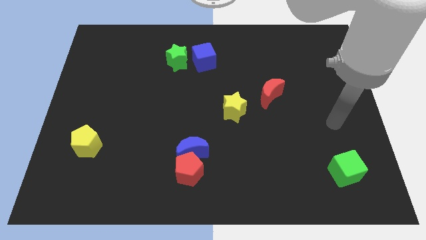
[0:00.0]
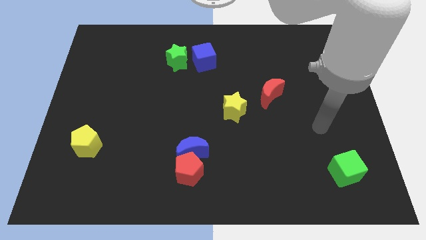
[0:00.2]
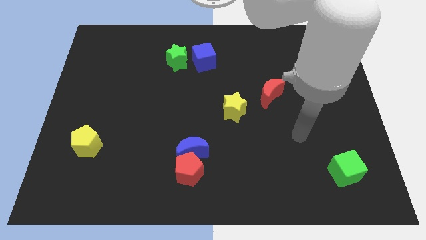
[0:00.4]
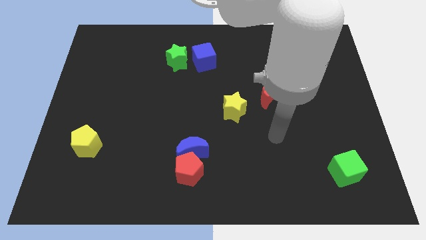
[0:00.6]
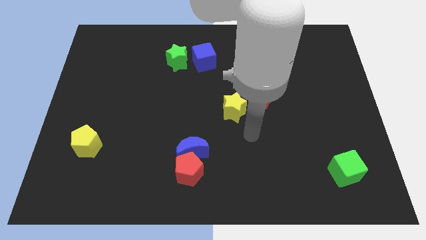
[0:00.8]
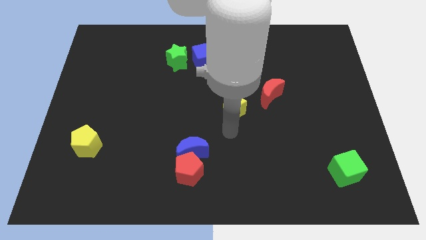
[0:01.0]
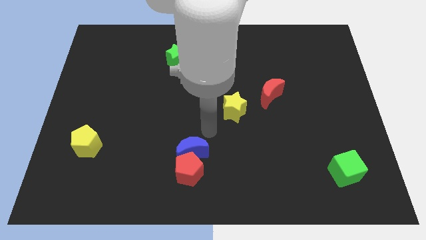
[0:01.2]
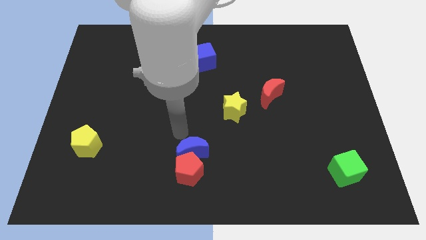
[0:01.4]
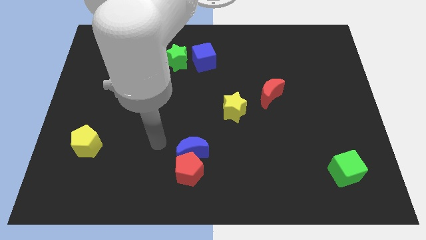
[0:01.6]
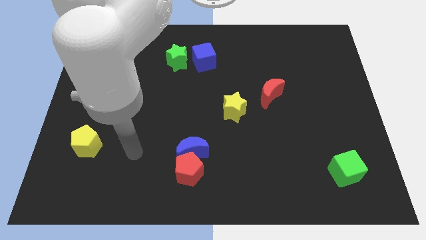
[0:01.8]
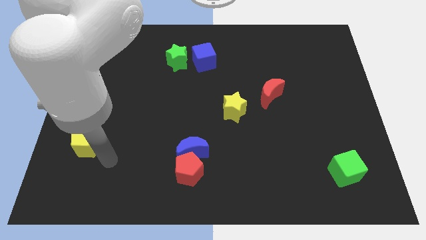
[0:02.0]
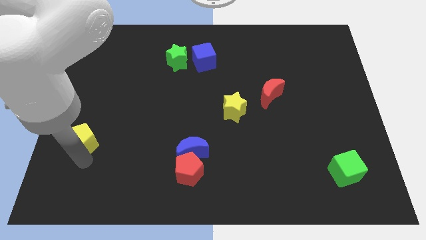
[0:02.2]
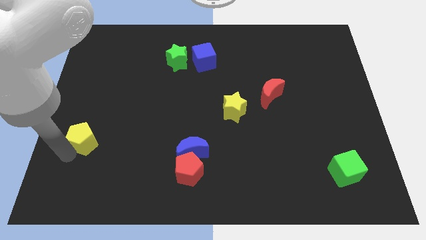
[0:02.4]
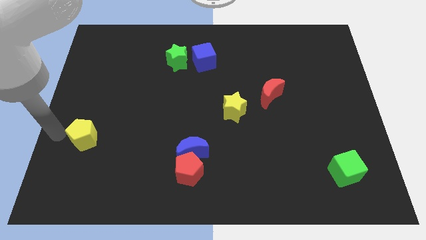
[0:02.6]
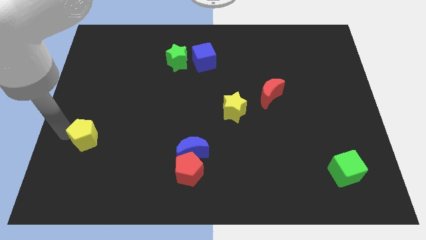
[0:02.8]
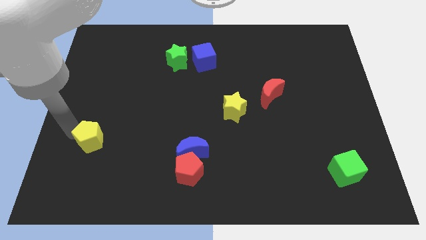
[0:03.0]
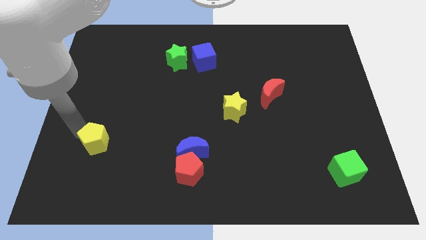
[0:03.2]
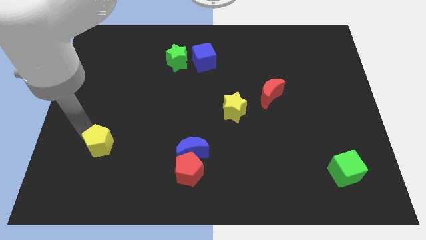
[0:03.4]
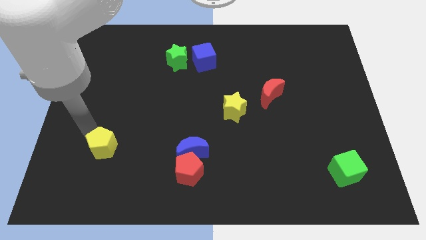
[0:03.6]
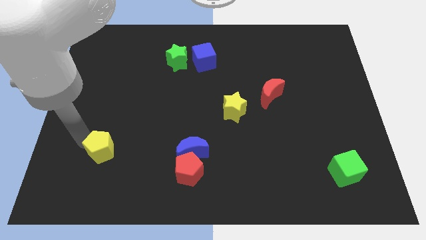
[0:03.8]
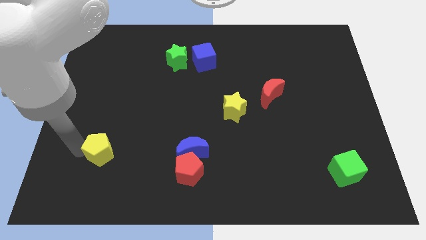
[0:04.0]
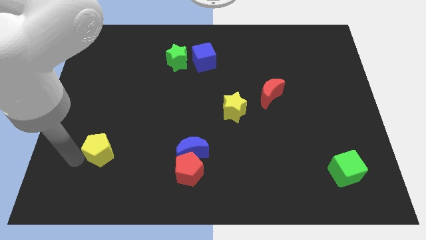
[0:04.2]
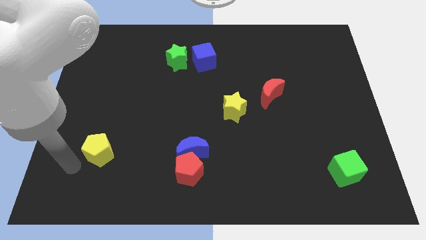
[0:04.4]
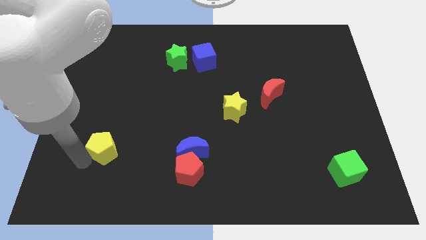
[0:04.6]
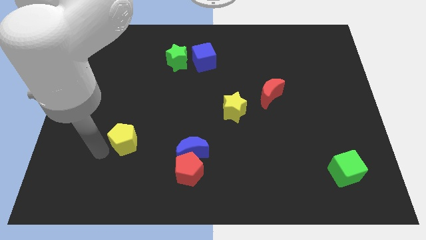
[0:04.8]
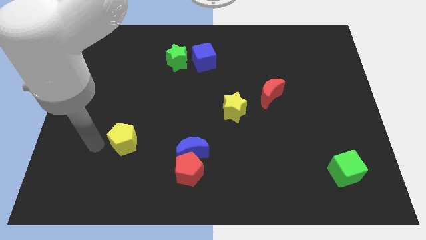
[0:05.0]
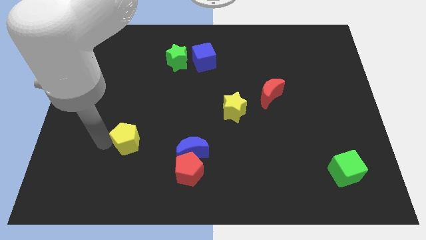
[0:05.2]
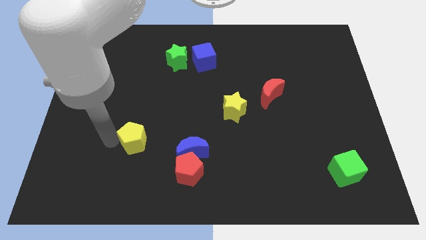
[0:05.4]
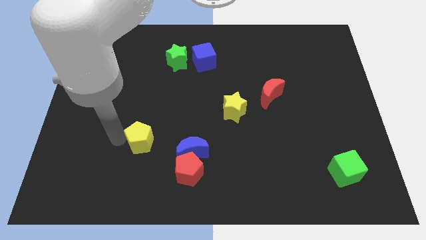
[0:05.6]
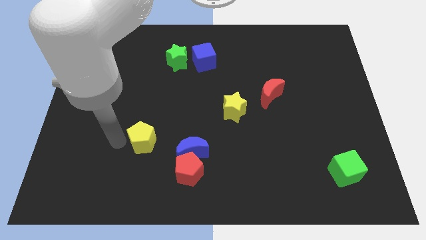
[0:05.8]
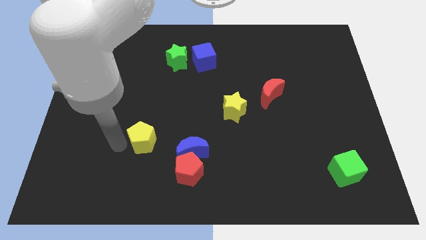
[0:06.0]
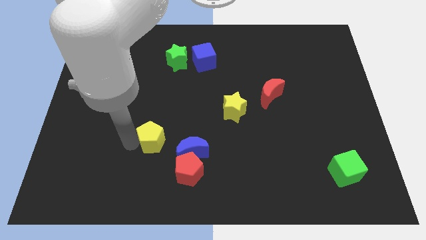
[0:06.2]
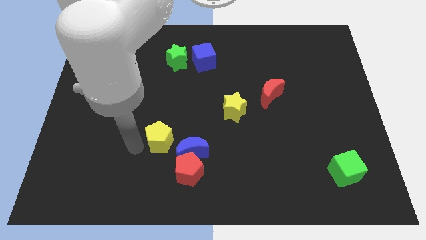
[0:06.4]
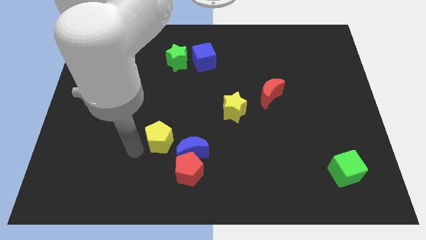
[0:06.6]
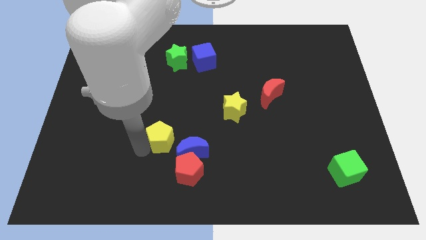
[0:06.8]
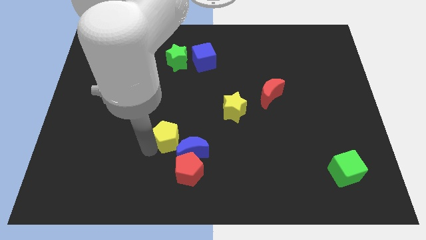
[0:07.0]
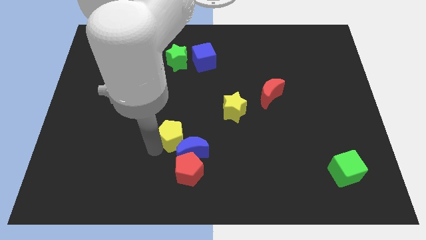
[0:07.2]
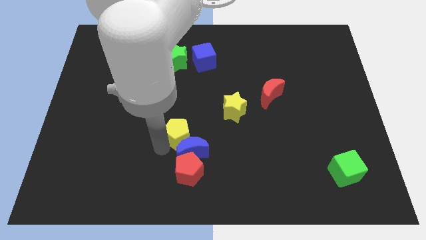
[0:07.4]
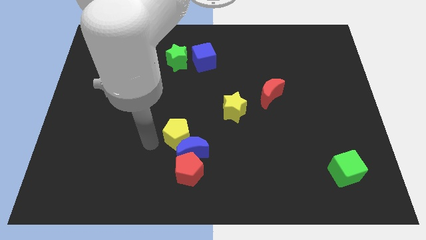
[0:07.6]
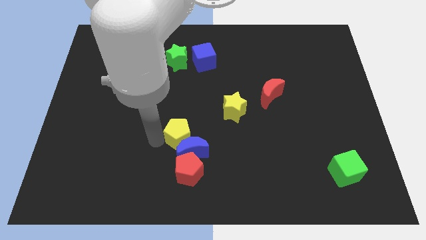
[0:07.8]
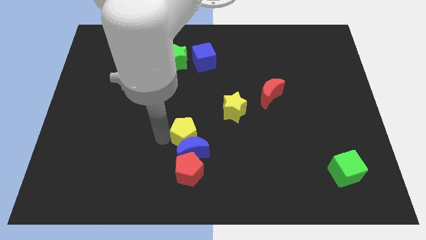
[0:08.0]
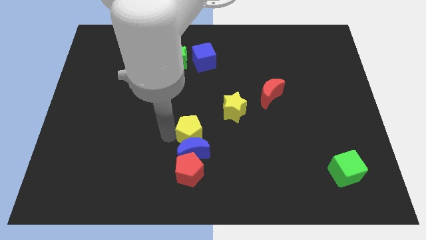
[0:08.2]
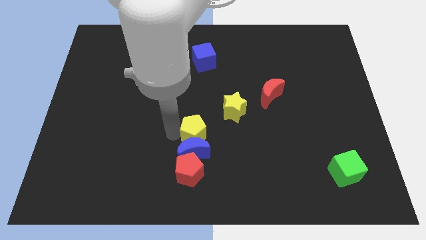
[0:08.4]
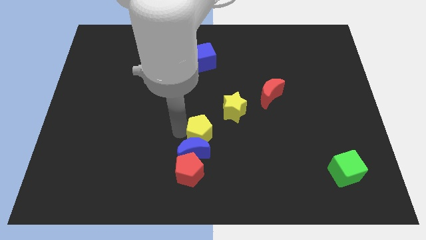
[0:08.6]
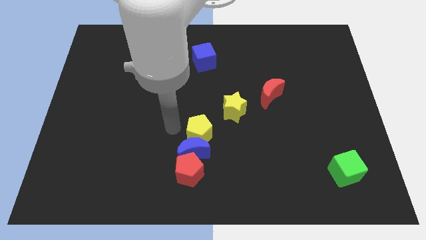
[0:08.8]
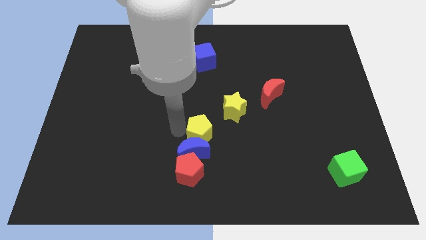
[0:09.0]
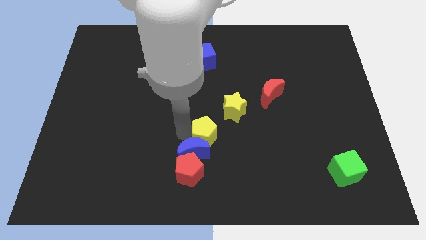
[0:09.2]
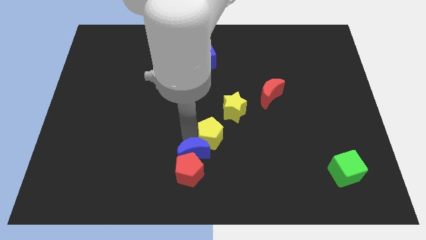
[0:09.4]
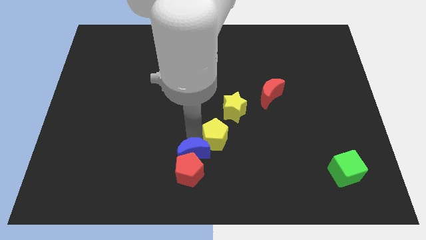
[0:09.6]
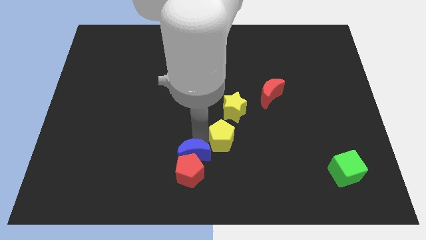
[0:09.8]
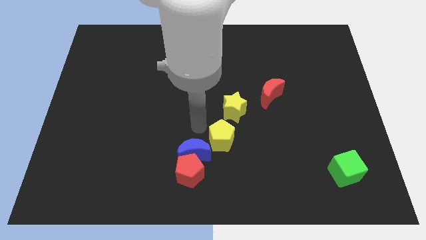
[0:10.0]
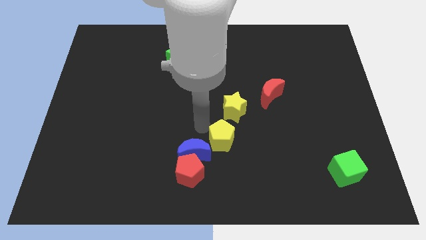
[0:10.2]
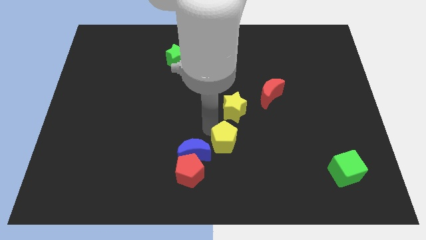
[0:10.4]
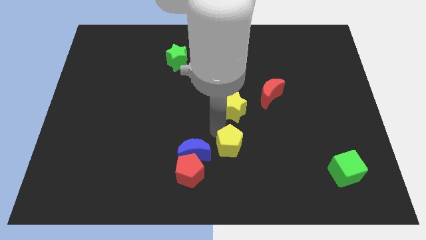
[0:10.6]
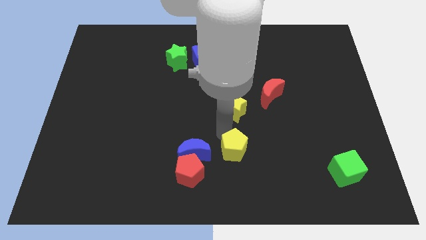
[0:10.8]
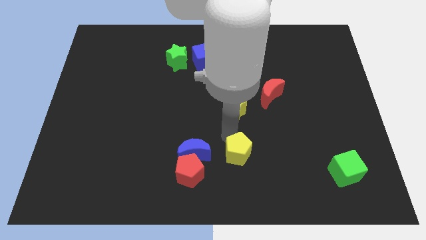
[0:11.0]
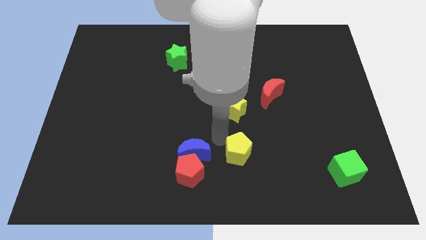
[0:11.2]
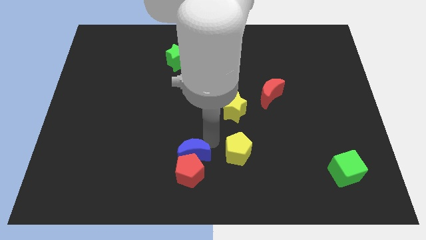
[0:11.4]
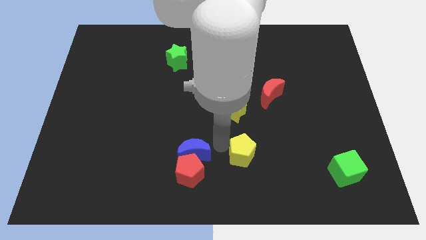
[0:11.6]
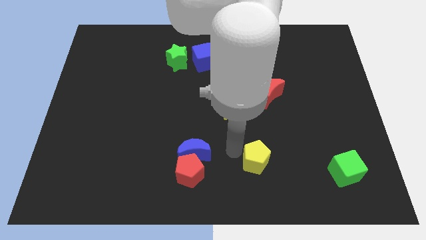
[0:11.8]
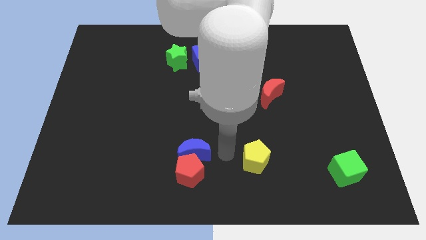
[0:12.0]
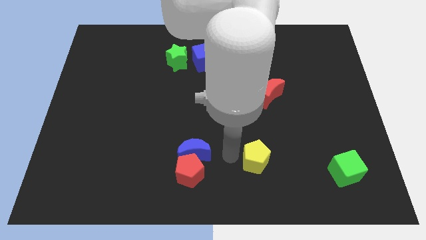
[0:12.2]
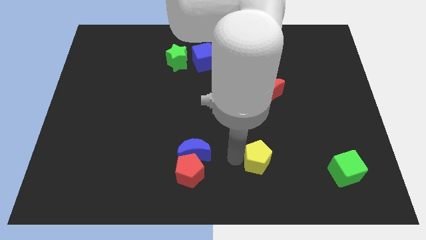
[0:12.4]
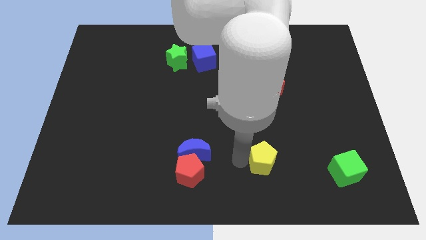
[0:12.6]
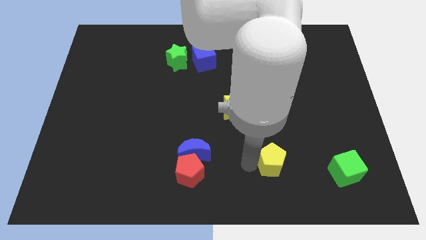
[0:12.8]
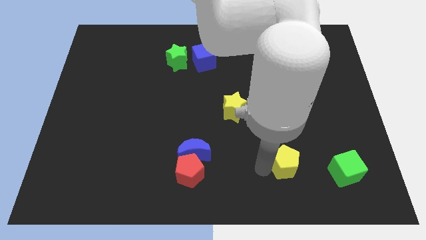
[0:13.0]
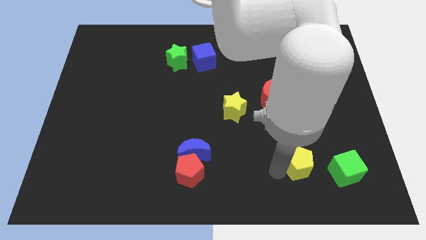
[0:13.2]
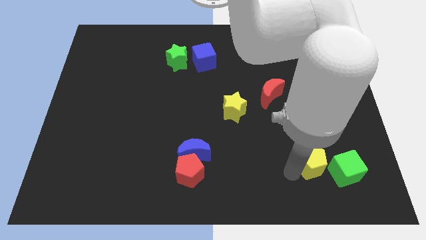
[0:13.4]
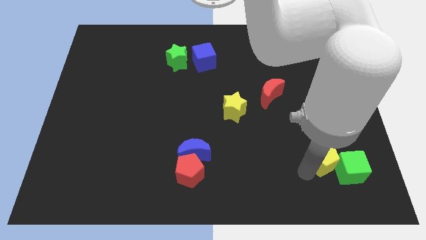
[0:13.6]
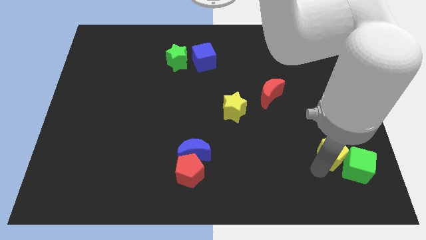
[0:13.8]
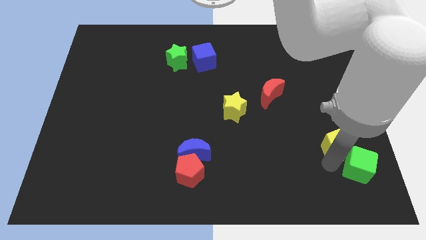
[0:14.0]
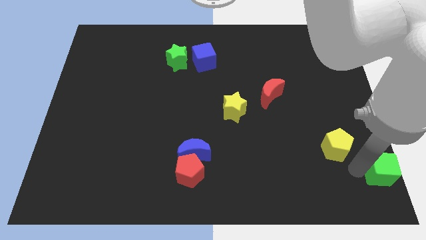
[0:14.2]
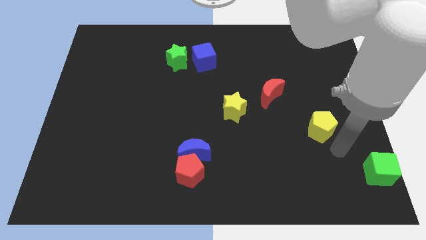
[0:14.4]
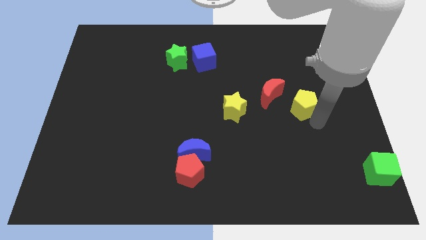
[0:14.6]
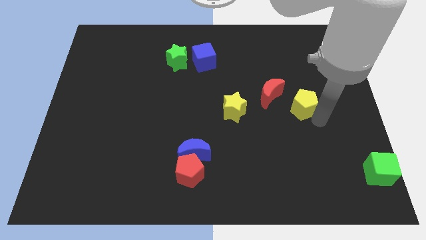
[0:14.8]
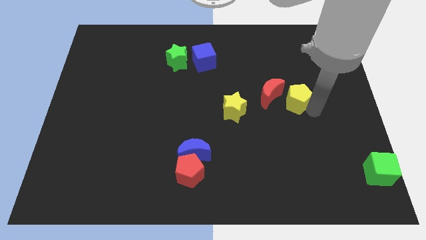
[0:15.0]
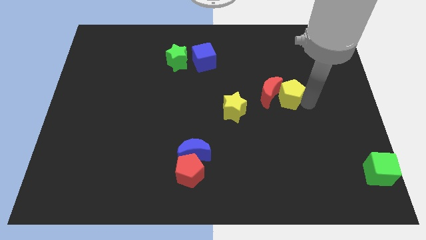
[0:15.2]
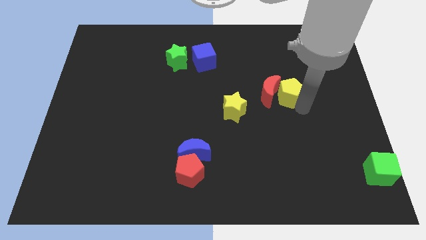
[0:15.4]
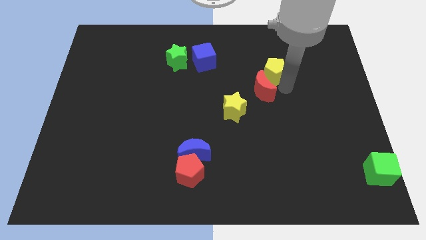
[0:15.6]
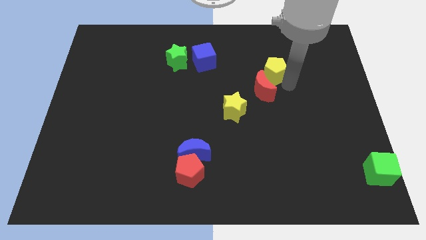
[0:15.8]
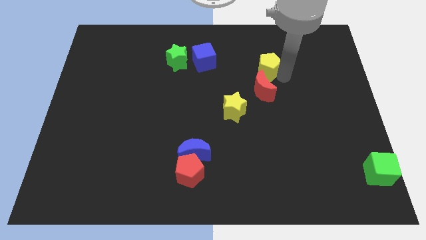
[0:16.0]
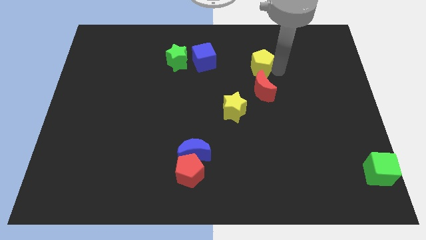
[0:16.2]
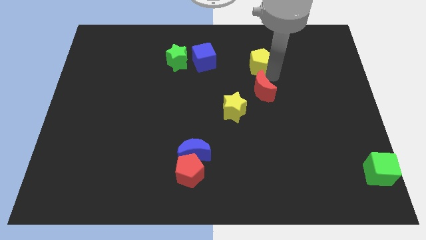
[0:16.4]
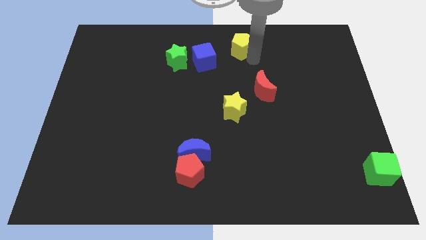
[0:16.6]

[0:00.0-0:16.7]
put the yellow pentagon to the top side
